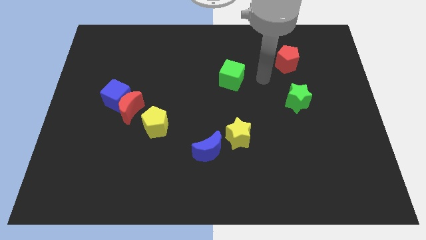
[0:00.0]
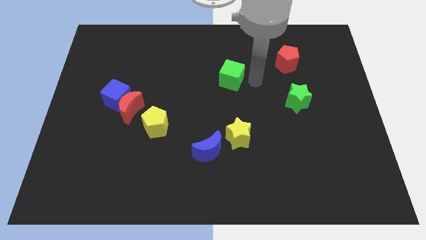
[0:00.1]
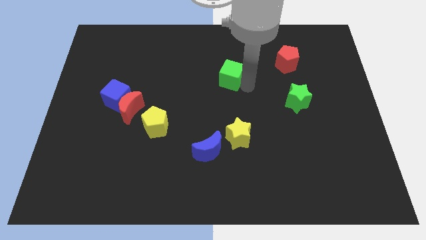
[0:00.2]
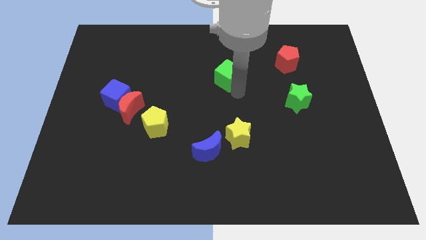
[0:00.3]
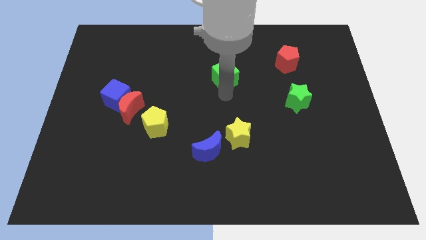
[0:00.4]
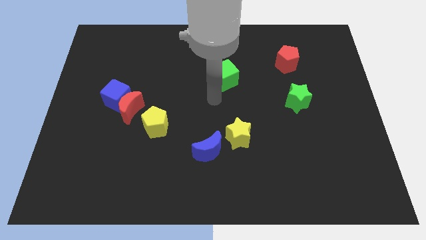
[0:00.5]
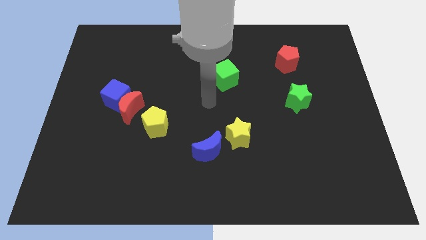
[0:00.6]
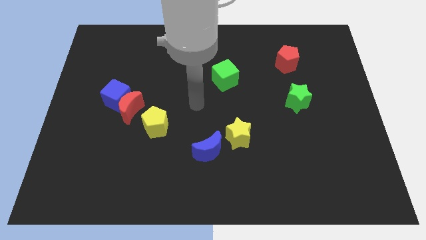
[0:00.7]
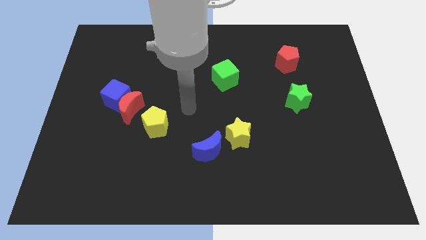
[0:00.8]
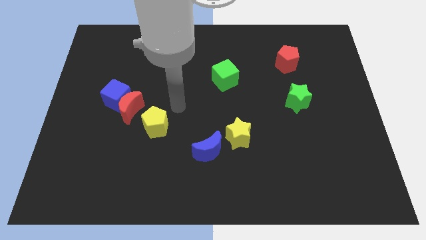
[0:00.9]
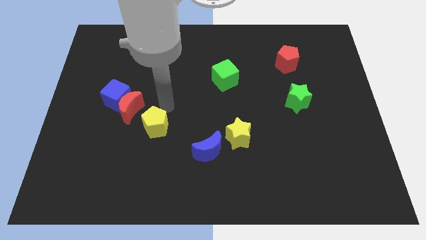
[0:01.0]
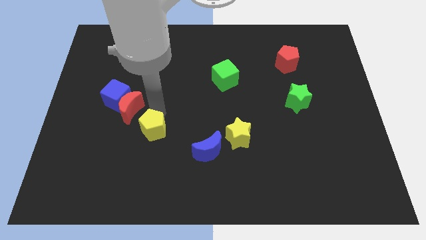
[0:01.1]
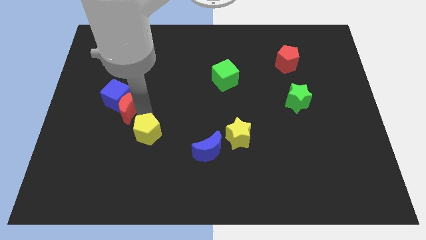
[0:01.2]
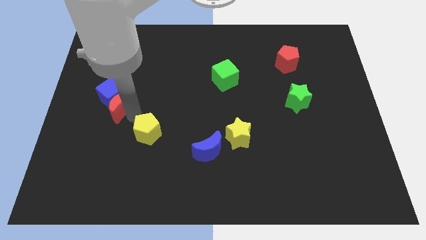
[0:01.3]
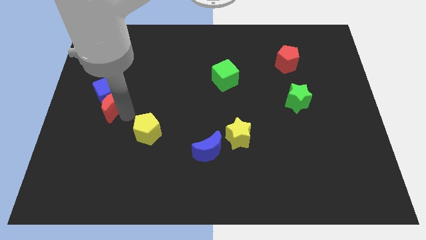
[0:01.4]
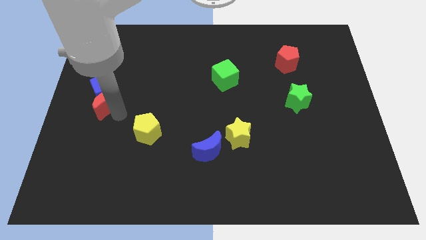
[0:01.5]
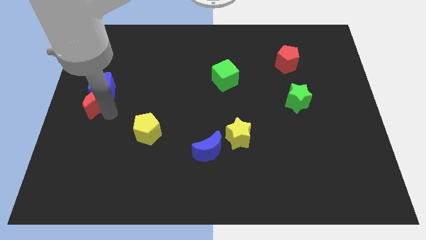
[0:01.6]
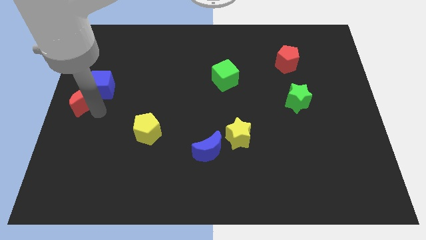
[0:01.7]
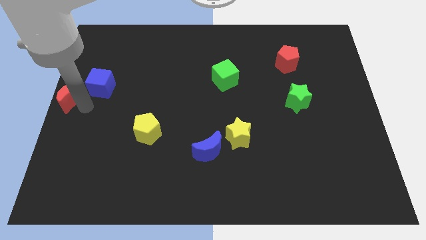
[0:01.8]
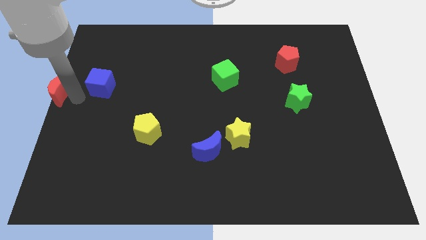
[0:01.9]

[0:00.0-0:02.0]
separate the blue cube from the red moon

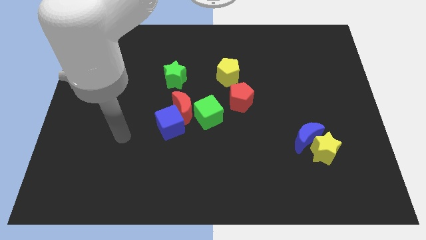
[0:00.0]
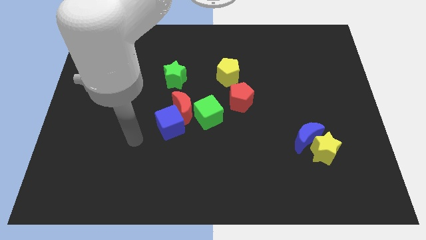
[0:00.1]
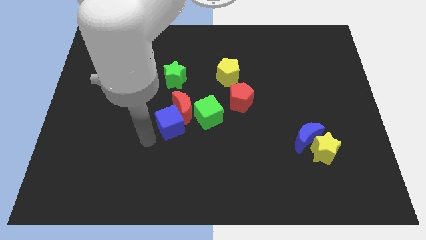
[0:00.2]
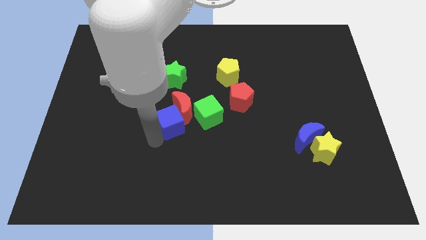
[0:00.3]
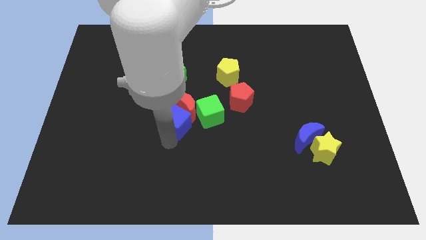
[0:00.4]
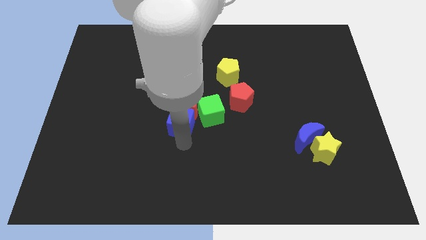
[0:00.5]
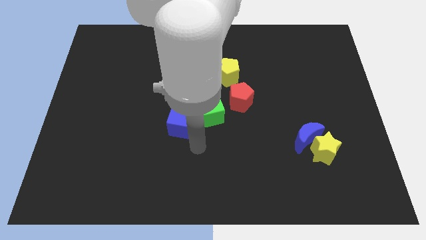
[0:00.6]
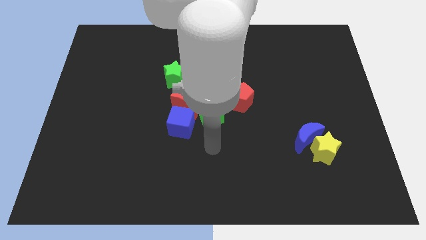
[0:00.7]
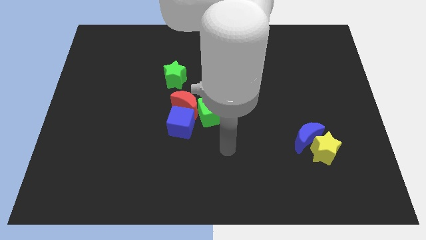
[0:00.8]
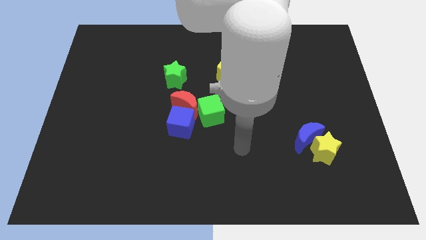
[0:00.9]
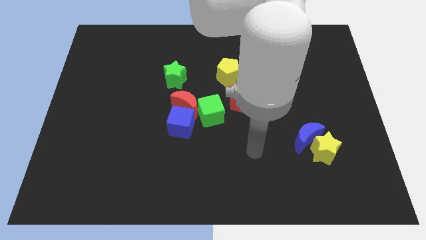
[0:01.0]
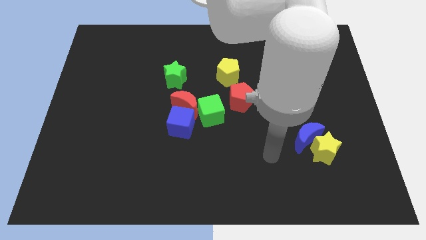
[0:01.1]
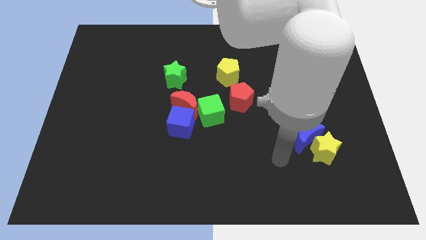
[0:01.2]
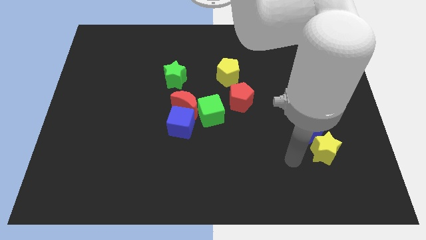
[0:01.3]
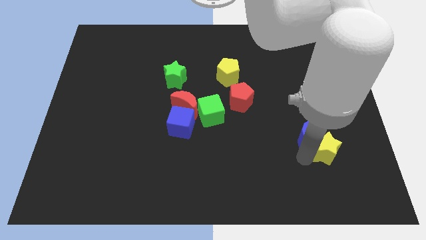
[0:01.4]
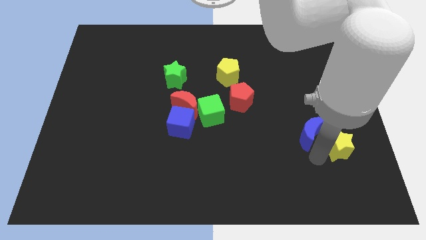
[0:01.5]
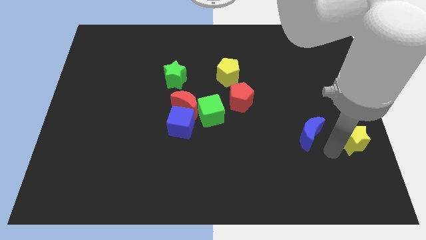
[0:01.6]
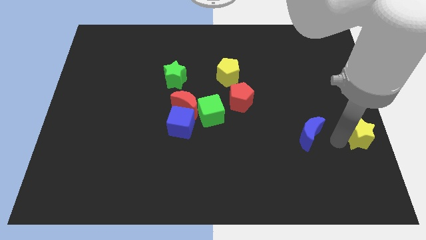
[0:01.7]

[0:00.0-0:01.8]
separate the blue moon from the yellow star

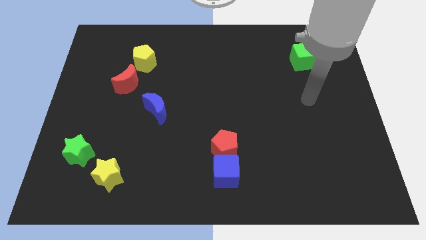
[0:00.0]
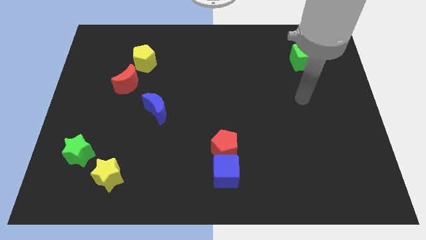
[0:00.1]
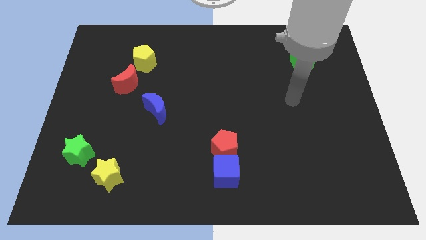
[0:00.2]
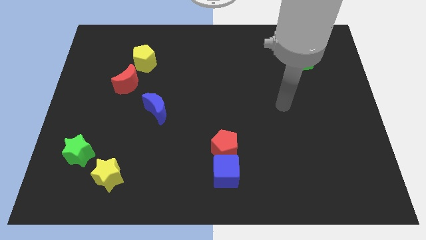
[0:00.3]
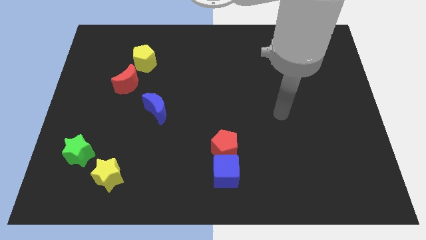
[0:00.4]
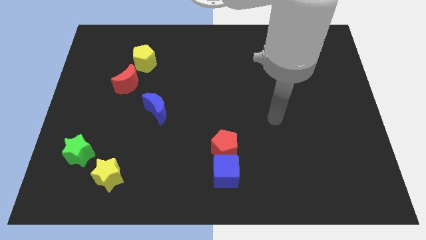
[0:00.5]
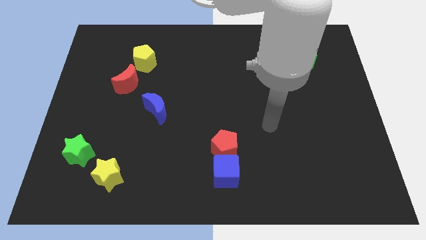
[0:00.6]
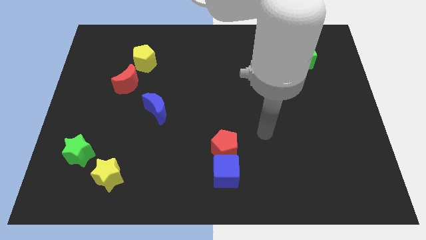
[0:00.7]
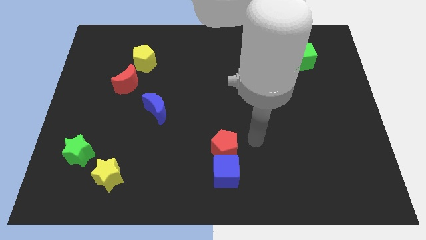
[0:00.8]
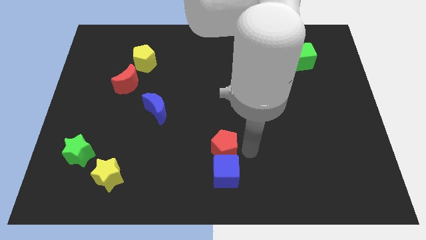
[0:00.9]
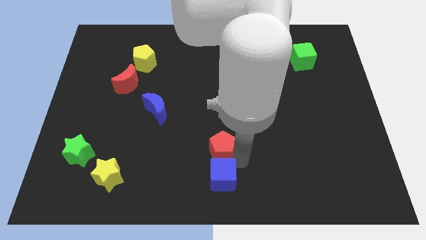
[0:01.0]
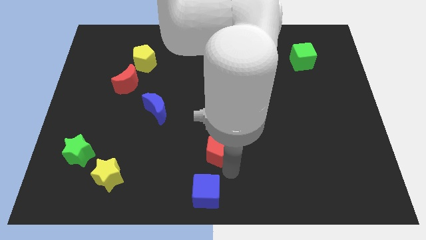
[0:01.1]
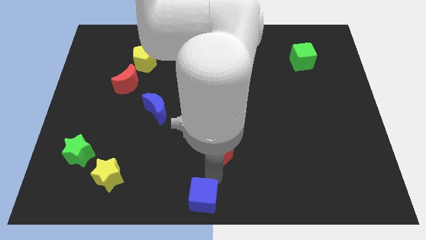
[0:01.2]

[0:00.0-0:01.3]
move the red pentagon away from the blue cube

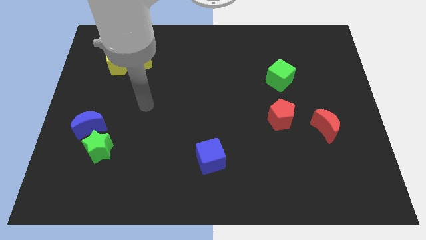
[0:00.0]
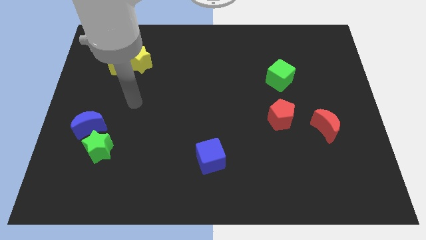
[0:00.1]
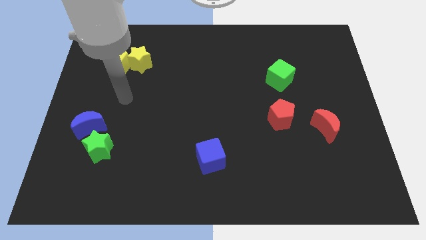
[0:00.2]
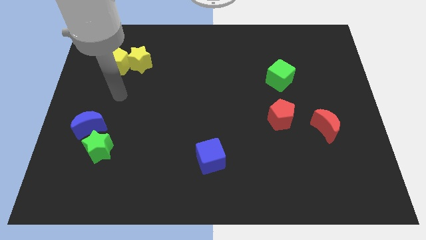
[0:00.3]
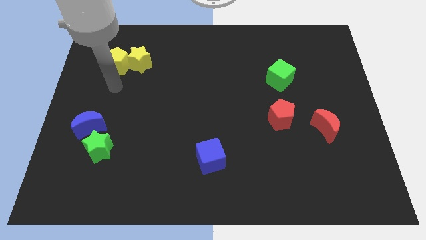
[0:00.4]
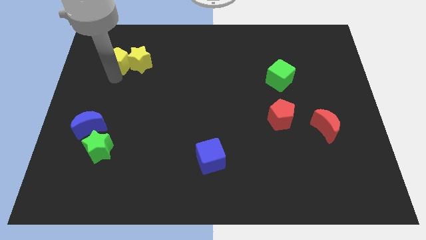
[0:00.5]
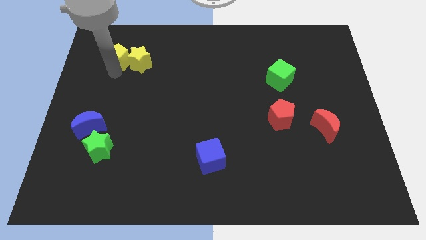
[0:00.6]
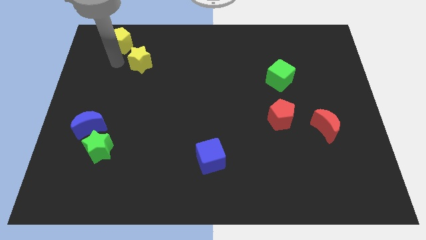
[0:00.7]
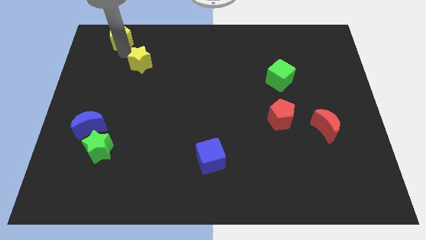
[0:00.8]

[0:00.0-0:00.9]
move the yellow star away from the yellow pentagon

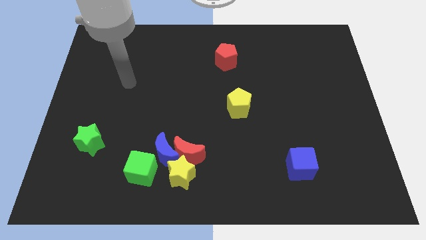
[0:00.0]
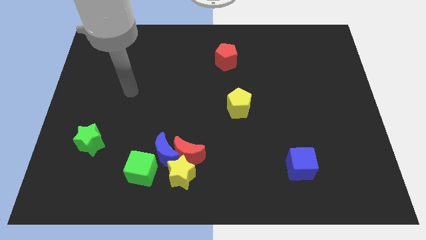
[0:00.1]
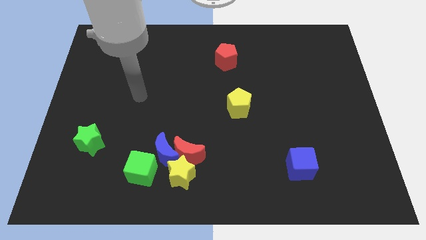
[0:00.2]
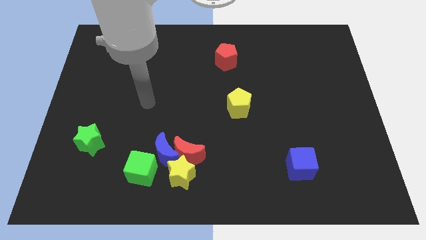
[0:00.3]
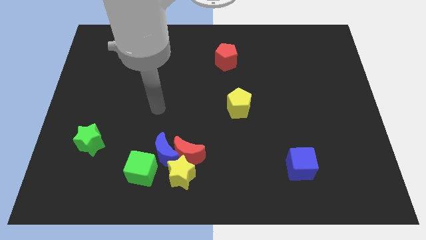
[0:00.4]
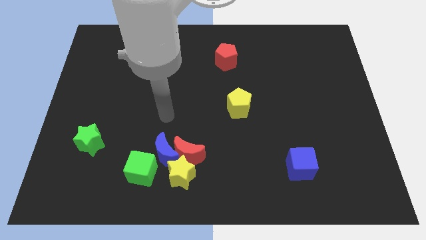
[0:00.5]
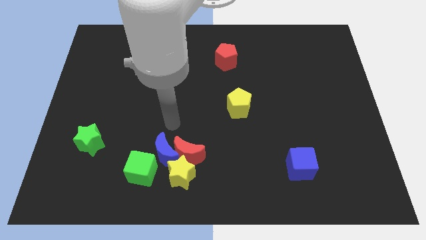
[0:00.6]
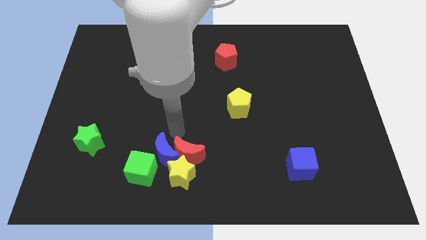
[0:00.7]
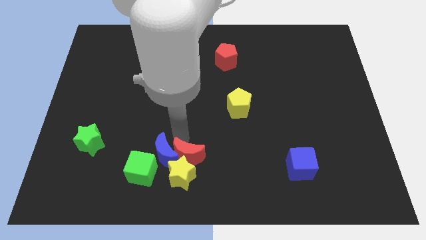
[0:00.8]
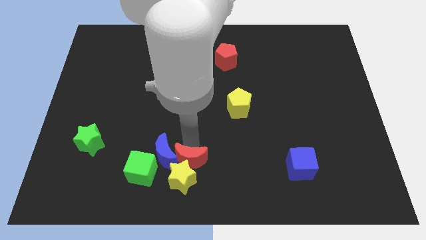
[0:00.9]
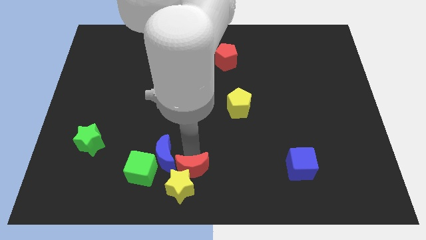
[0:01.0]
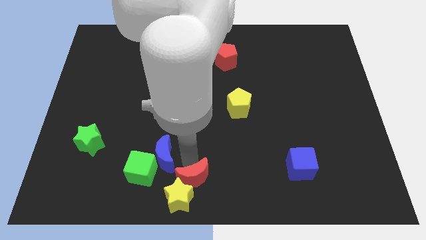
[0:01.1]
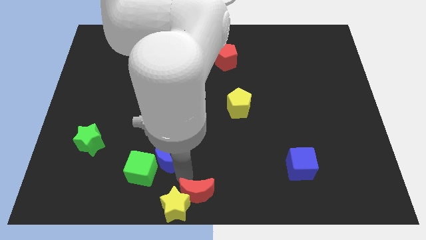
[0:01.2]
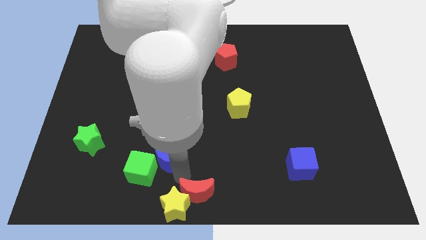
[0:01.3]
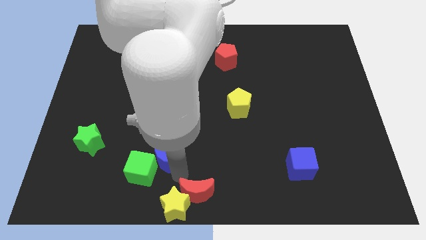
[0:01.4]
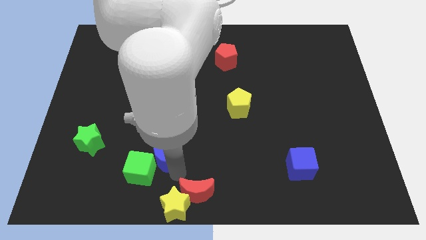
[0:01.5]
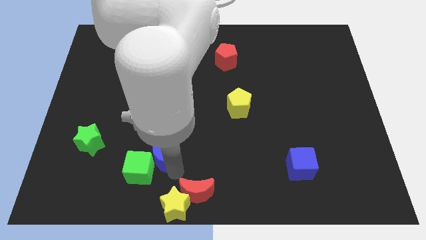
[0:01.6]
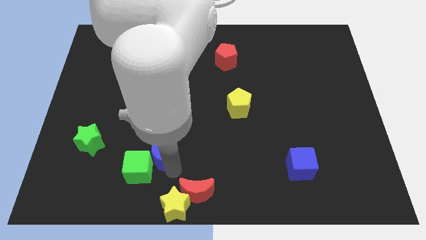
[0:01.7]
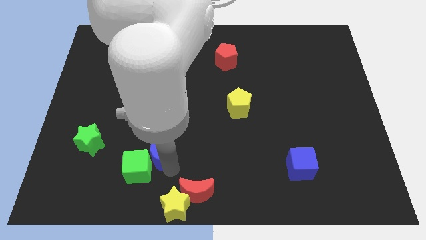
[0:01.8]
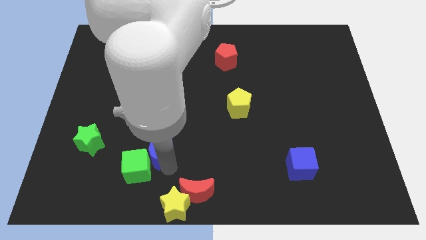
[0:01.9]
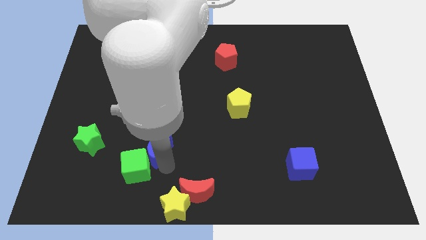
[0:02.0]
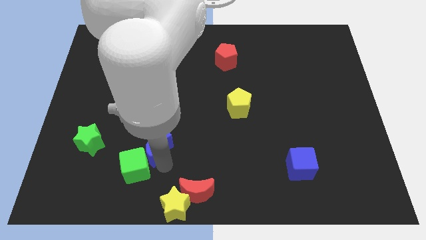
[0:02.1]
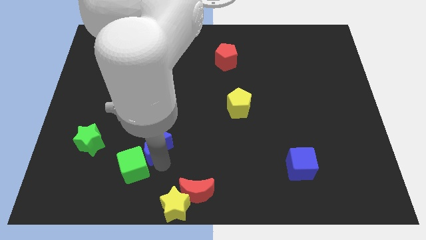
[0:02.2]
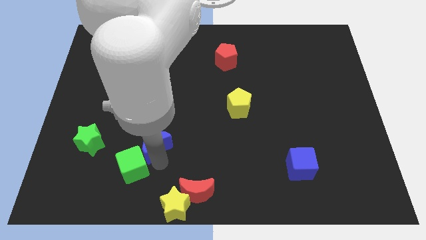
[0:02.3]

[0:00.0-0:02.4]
separate the blue moon from the red moon, green cube, and yellow star

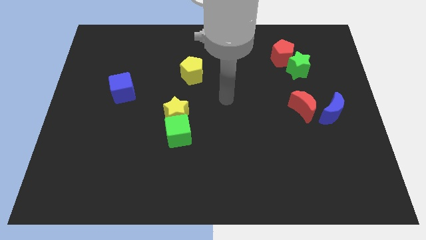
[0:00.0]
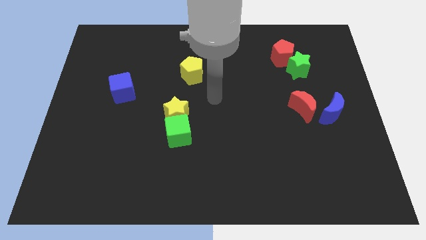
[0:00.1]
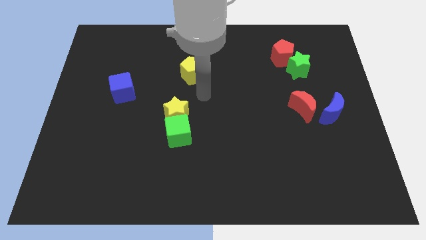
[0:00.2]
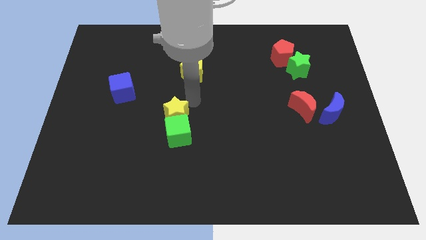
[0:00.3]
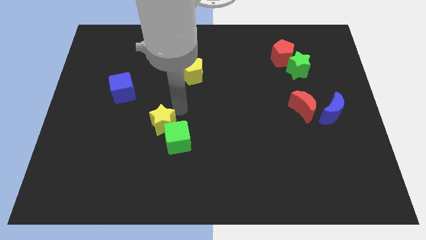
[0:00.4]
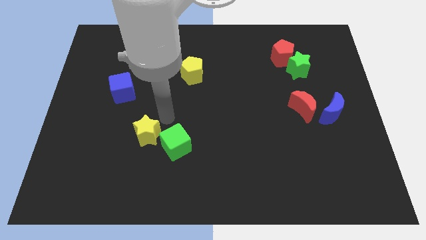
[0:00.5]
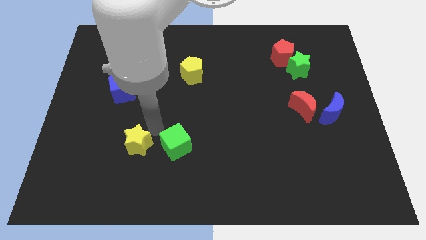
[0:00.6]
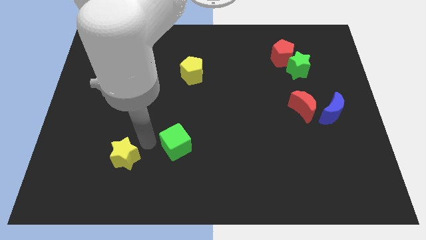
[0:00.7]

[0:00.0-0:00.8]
pull the green cube apart from the yellow star
